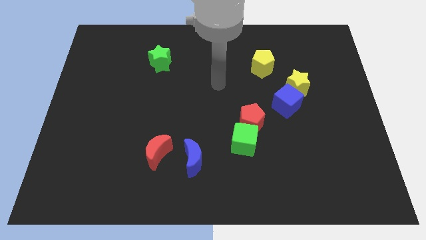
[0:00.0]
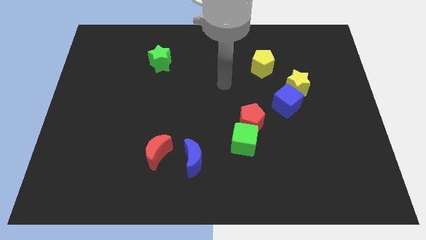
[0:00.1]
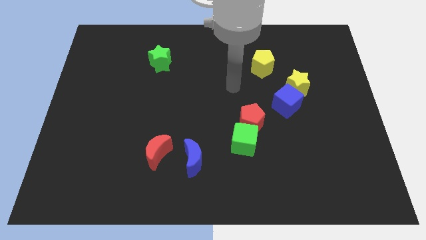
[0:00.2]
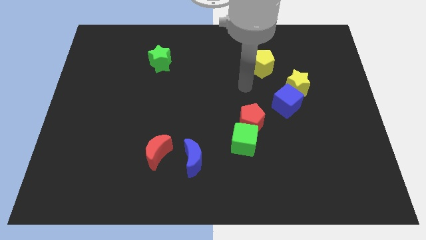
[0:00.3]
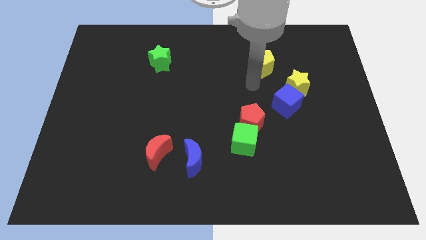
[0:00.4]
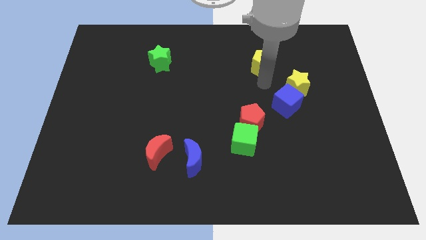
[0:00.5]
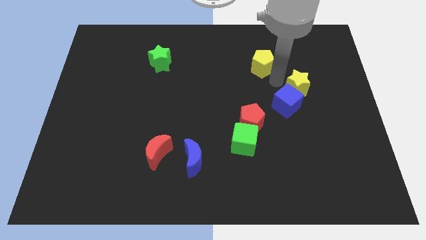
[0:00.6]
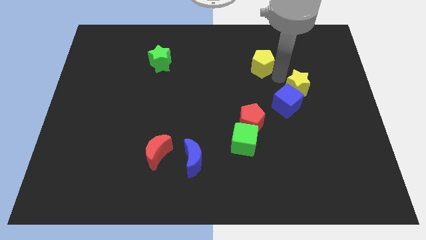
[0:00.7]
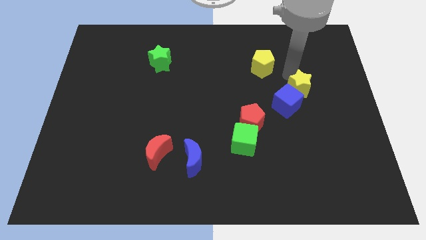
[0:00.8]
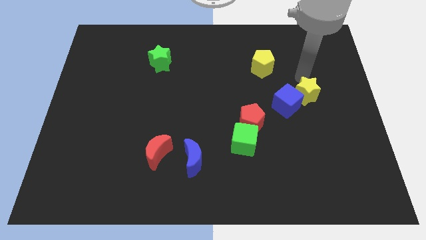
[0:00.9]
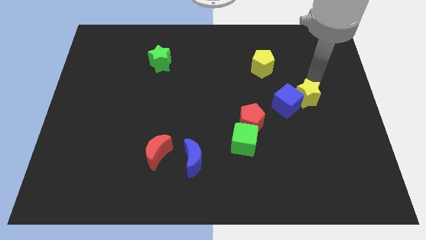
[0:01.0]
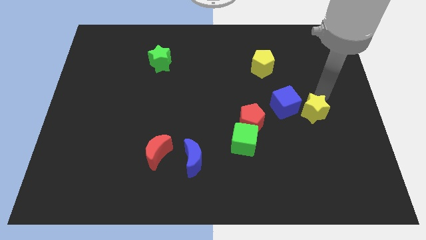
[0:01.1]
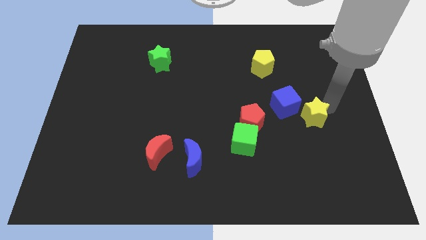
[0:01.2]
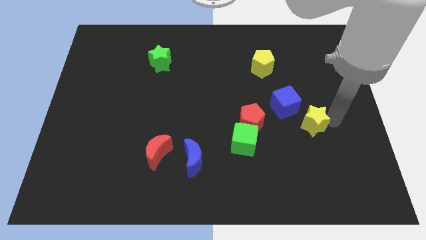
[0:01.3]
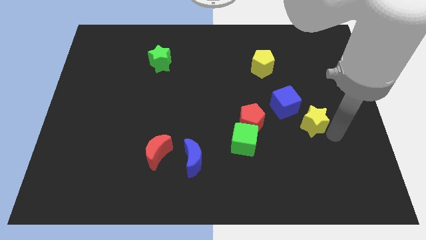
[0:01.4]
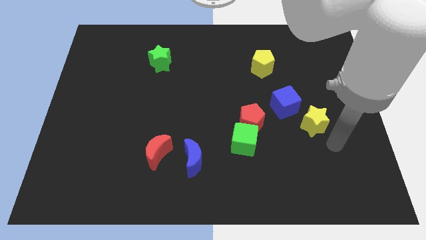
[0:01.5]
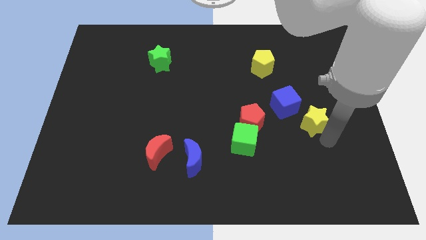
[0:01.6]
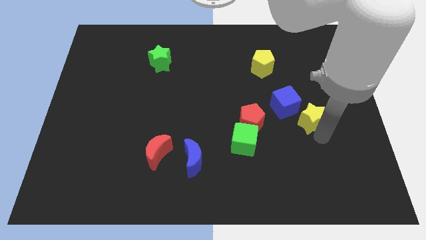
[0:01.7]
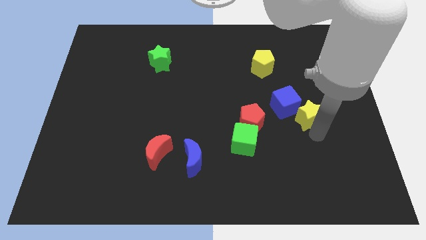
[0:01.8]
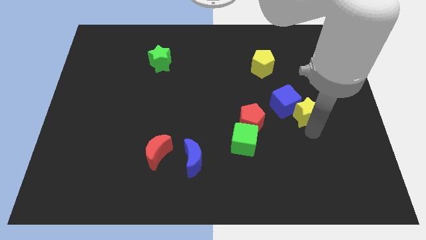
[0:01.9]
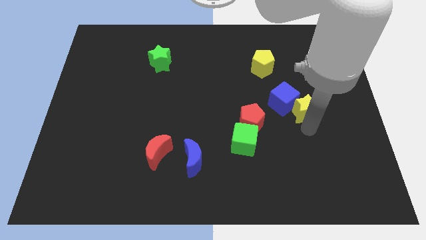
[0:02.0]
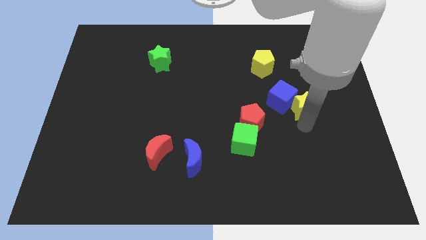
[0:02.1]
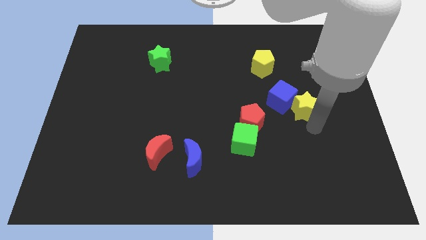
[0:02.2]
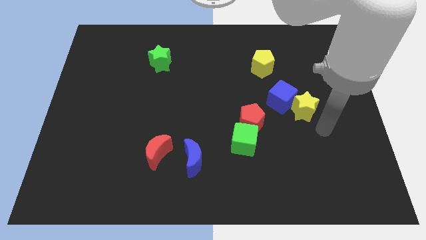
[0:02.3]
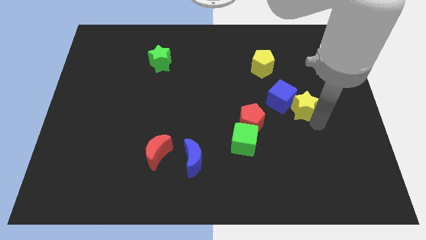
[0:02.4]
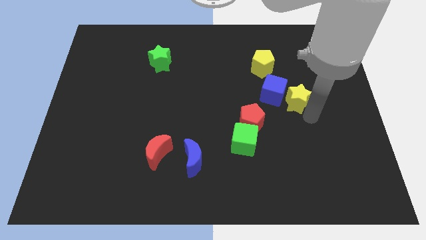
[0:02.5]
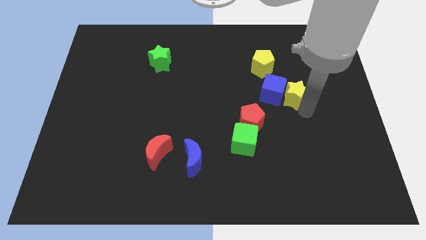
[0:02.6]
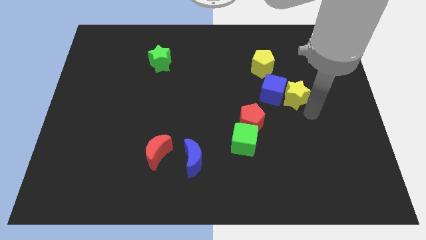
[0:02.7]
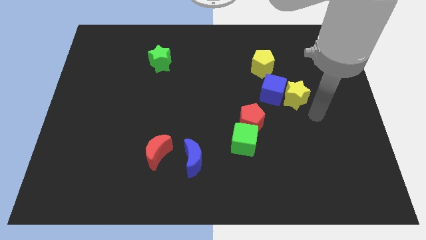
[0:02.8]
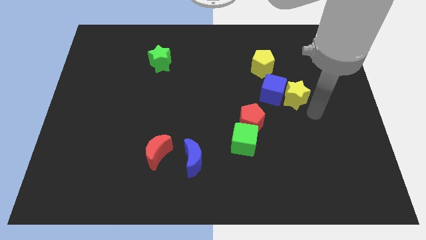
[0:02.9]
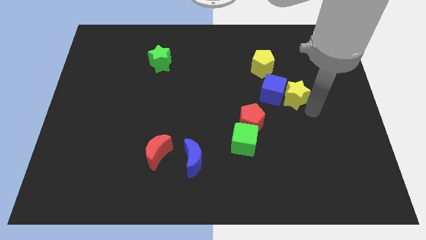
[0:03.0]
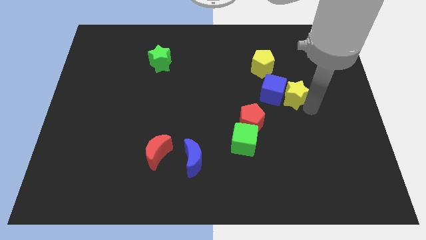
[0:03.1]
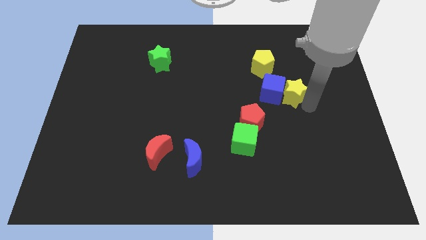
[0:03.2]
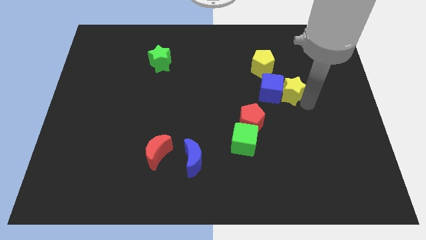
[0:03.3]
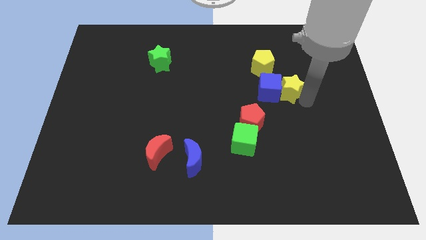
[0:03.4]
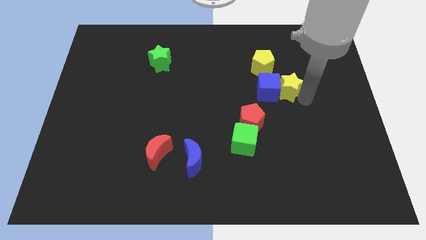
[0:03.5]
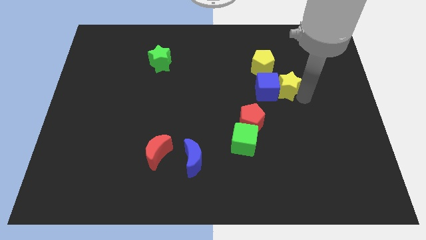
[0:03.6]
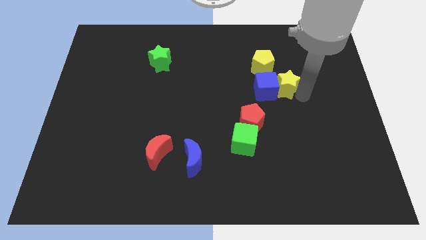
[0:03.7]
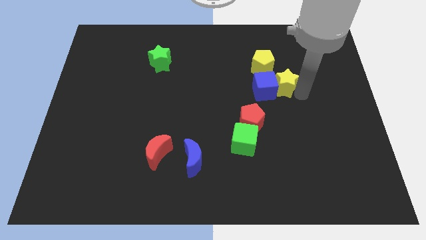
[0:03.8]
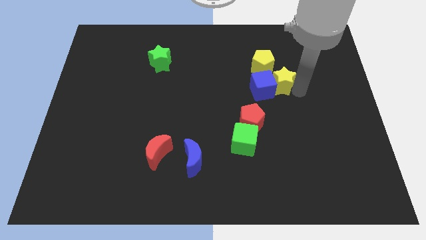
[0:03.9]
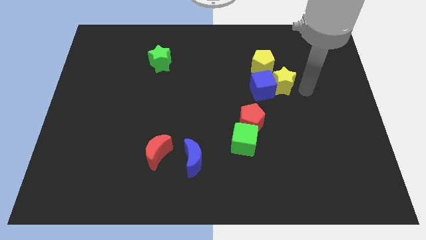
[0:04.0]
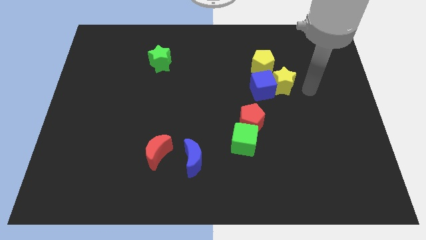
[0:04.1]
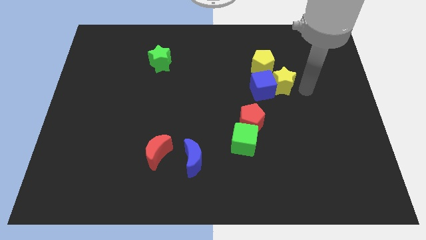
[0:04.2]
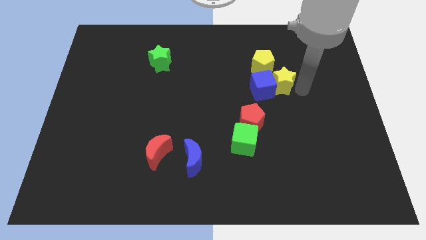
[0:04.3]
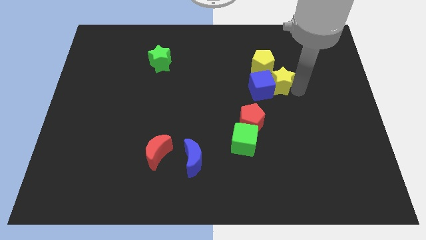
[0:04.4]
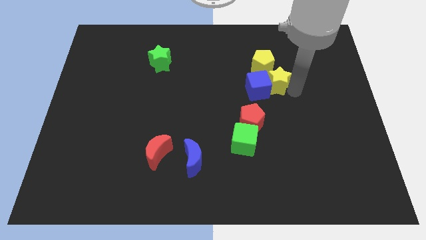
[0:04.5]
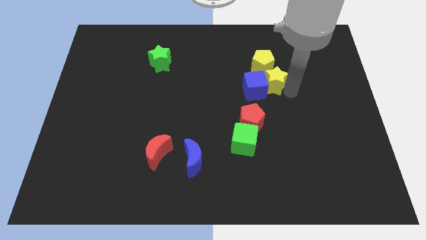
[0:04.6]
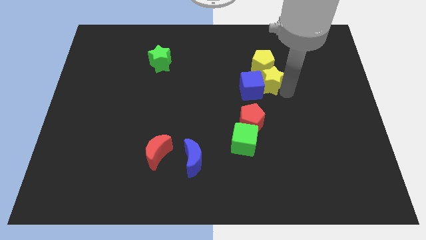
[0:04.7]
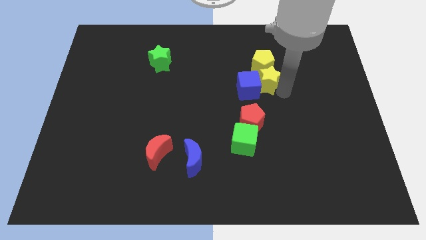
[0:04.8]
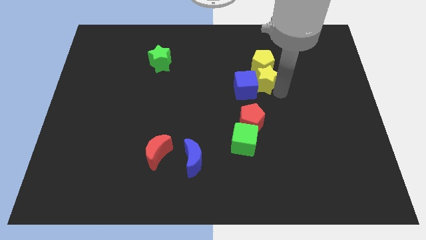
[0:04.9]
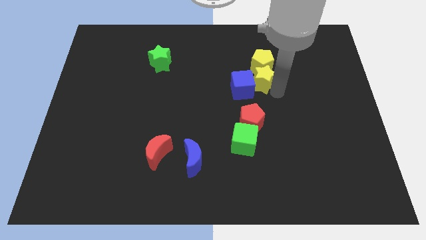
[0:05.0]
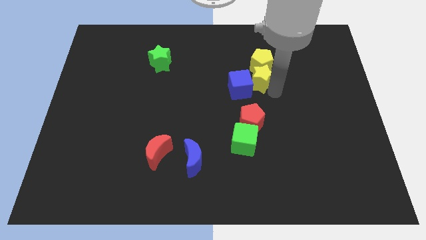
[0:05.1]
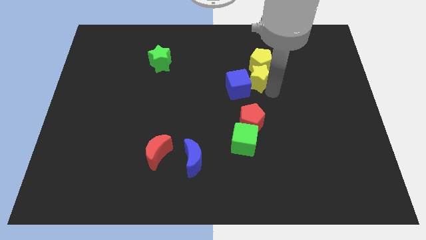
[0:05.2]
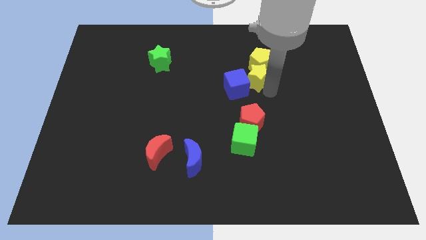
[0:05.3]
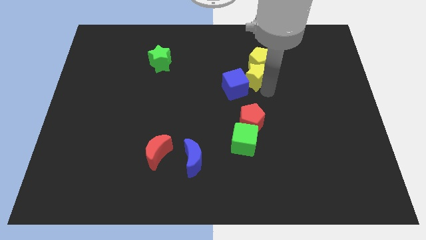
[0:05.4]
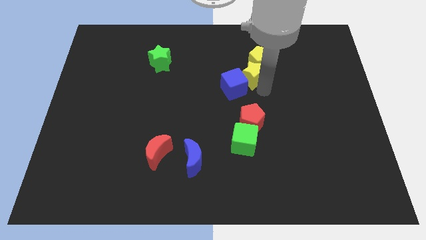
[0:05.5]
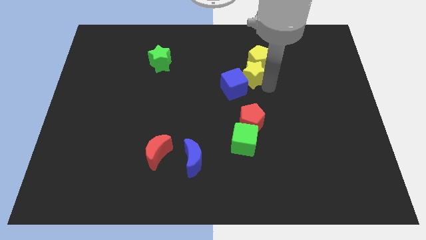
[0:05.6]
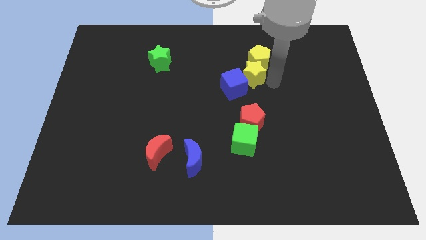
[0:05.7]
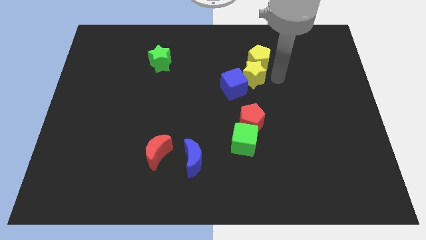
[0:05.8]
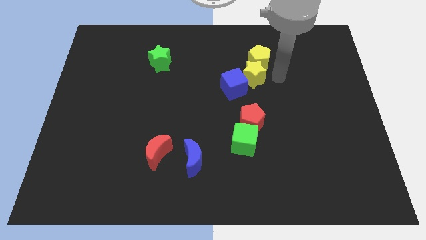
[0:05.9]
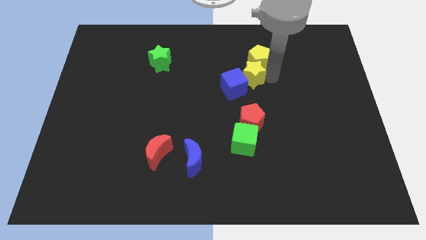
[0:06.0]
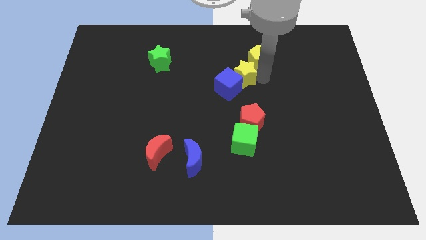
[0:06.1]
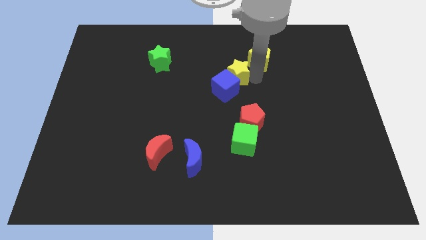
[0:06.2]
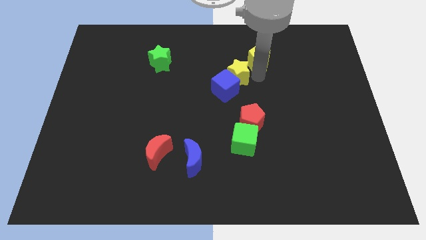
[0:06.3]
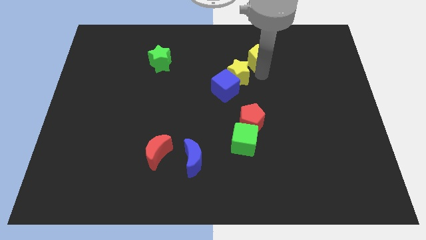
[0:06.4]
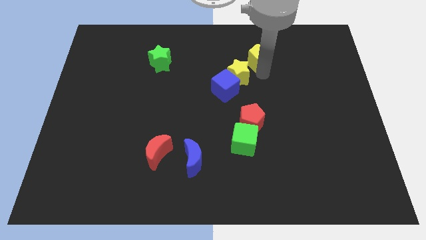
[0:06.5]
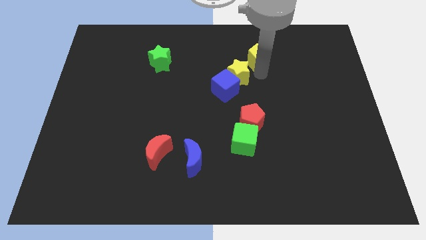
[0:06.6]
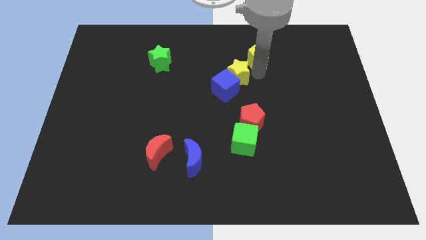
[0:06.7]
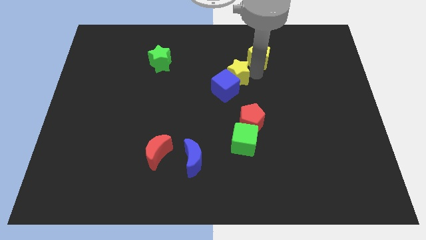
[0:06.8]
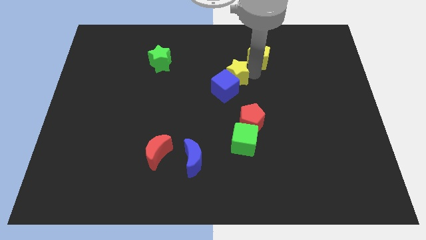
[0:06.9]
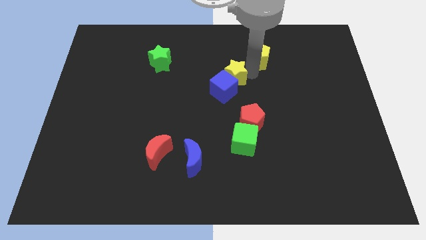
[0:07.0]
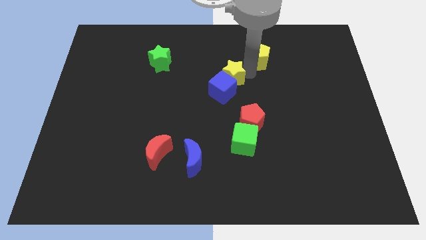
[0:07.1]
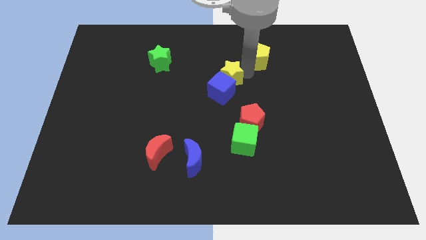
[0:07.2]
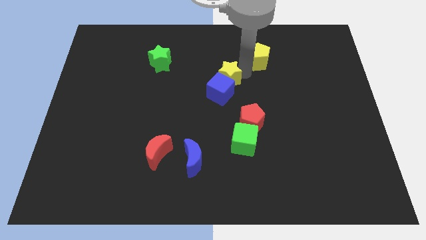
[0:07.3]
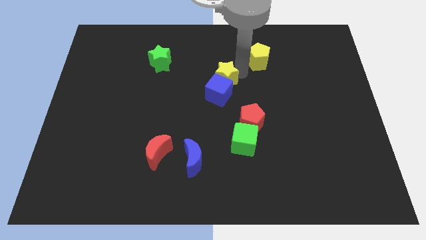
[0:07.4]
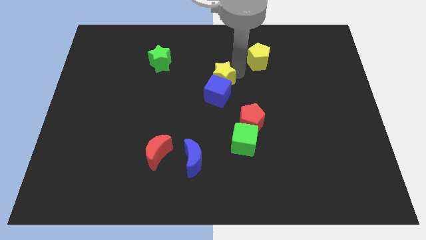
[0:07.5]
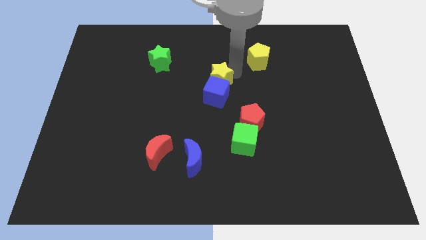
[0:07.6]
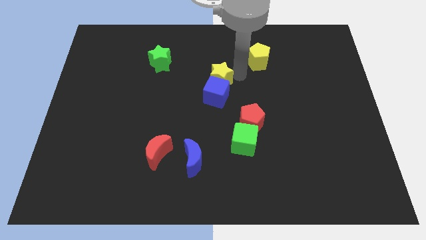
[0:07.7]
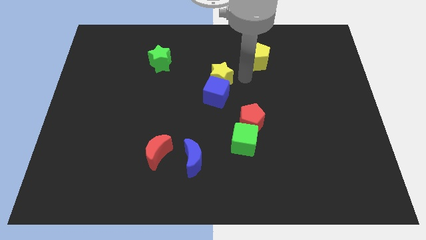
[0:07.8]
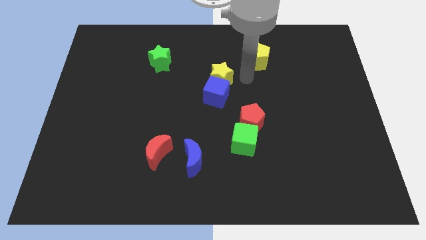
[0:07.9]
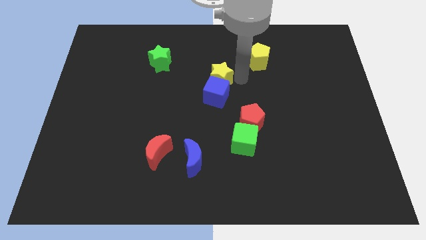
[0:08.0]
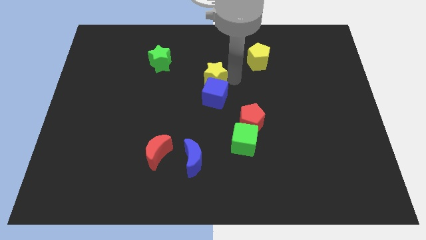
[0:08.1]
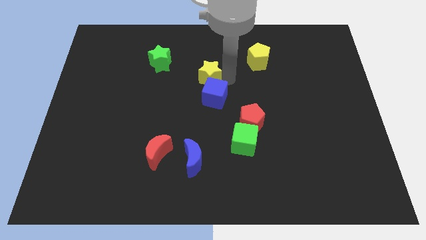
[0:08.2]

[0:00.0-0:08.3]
push the yellow star left
